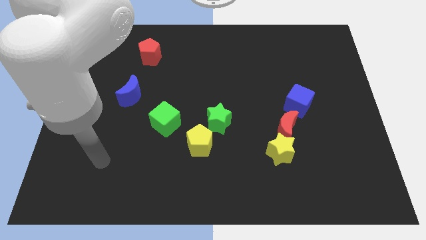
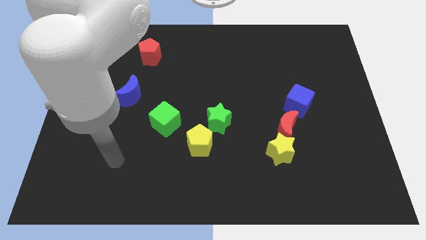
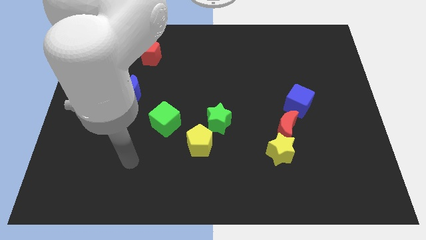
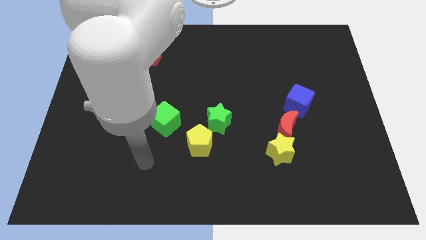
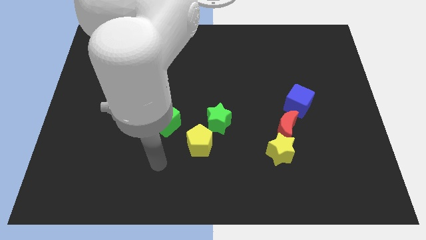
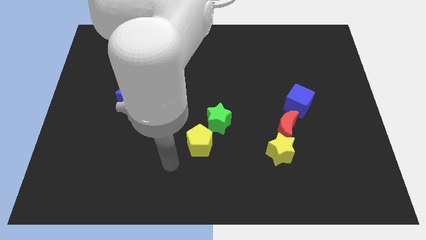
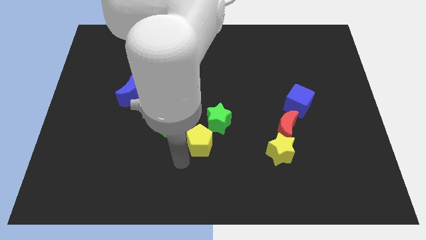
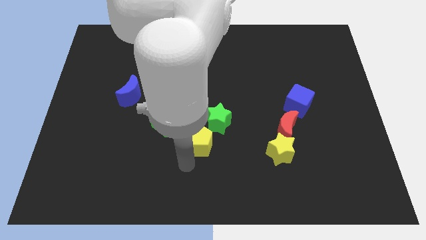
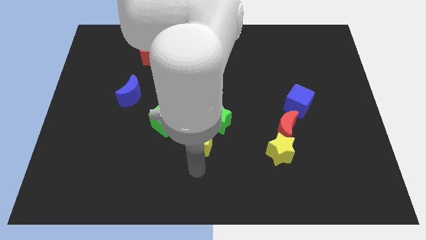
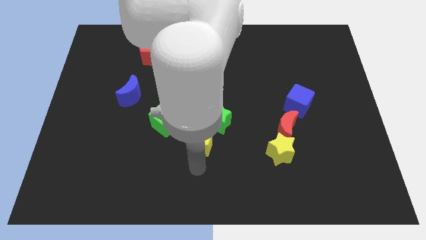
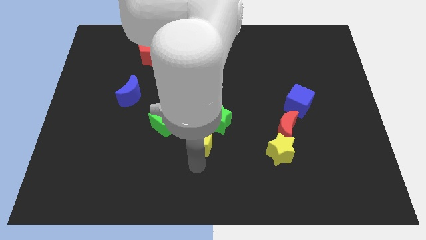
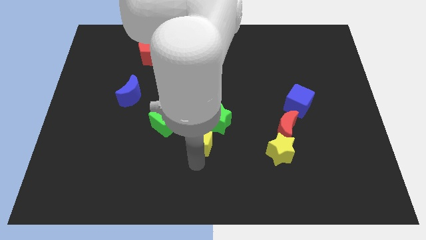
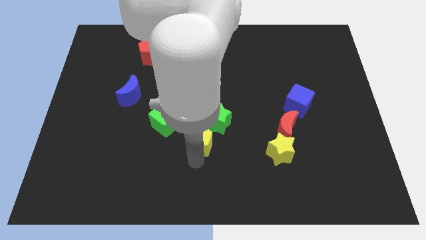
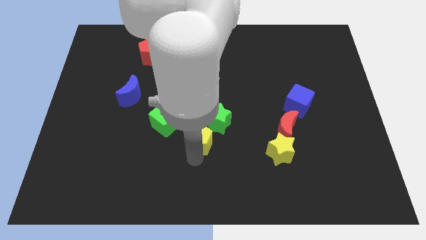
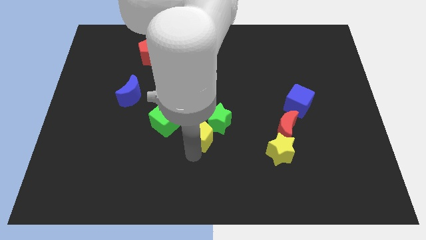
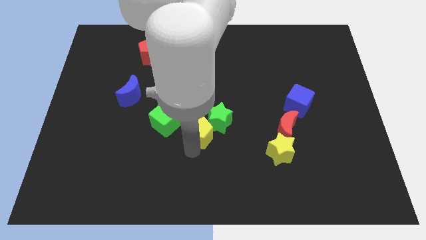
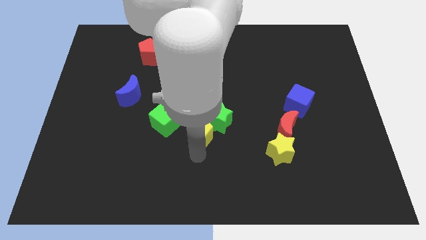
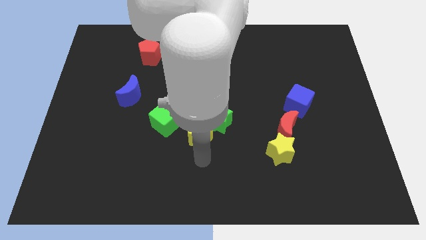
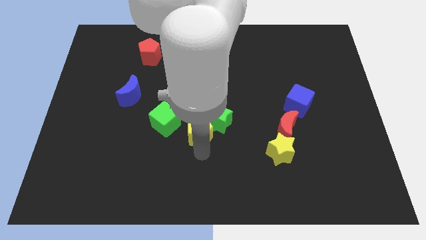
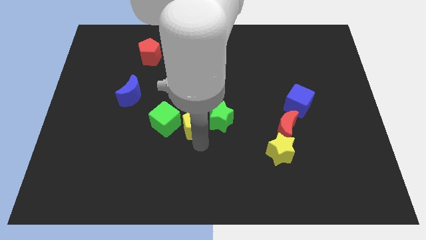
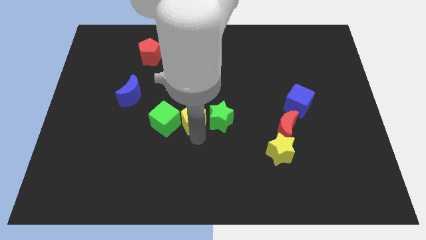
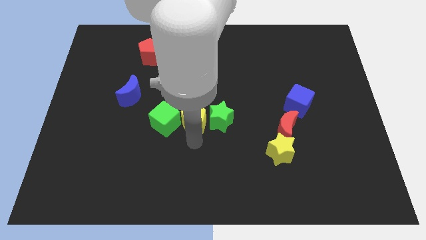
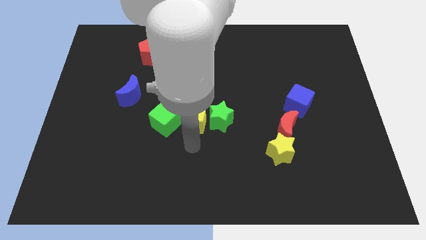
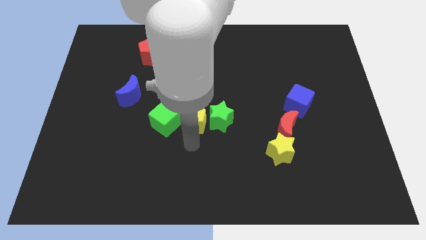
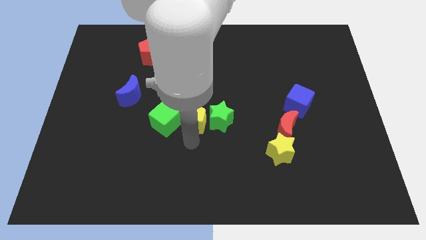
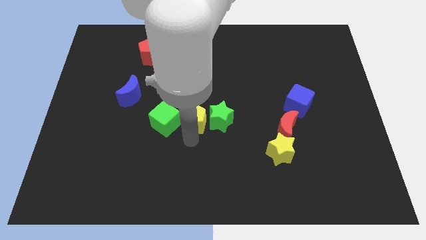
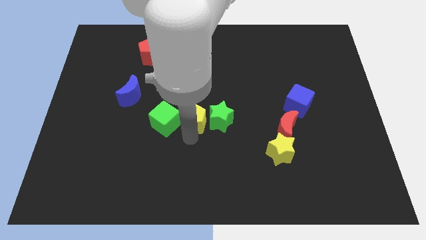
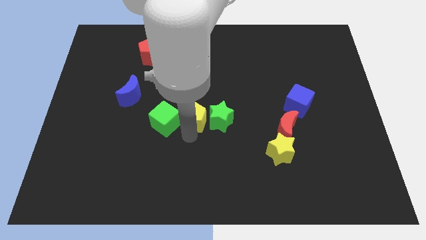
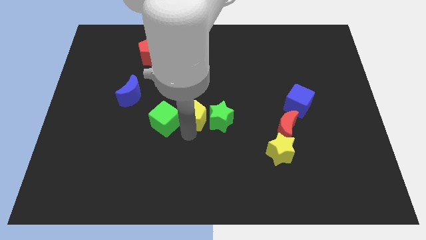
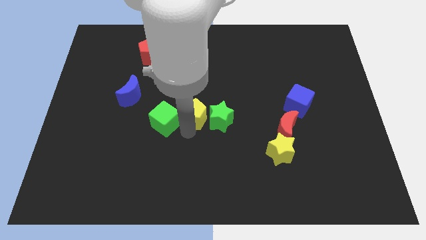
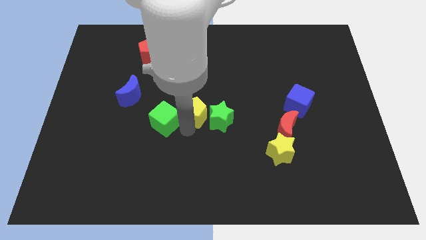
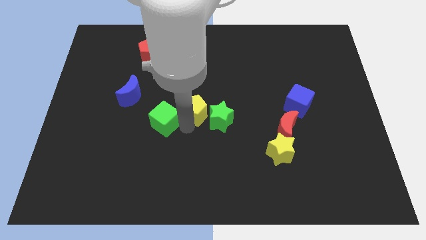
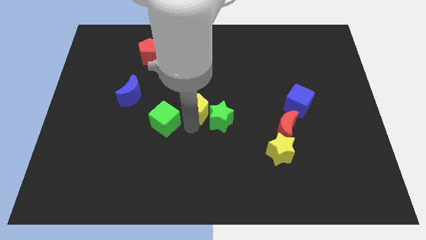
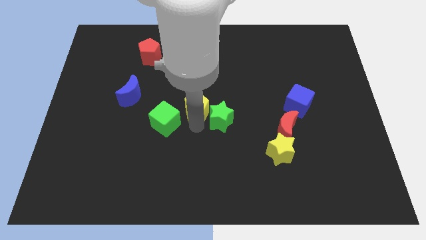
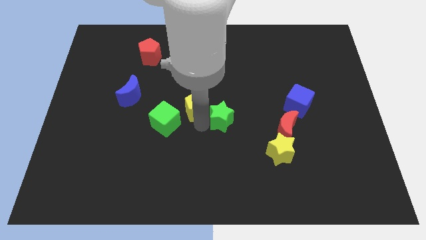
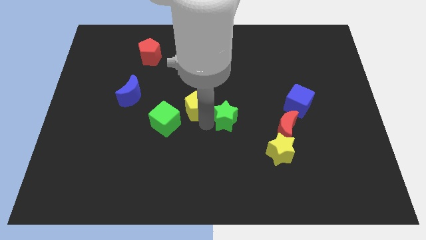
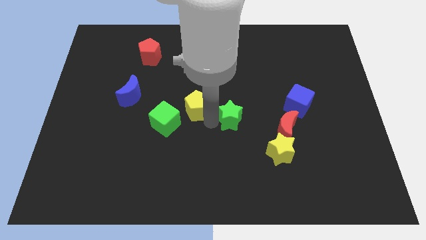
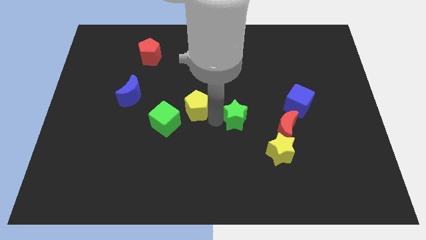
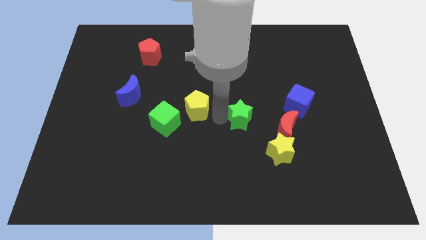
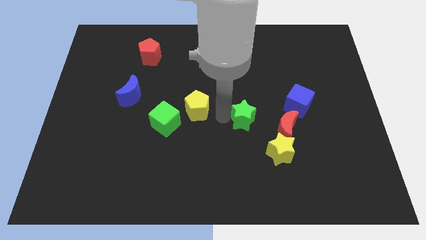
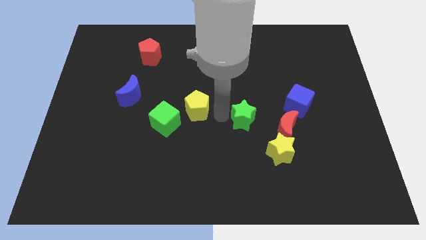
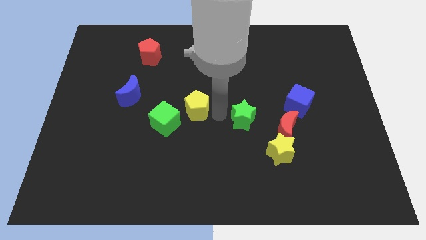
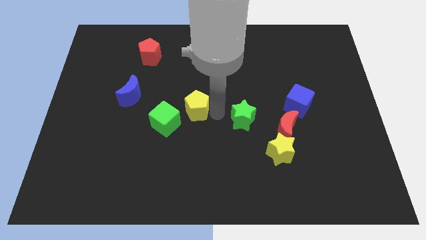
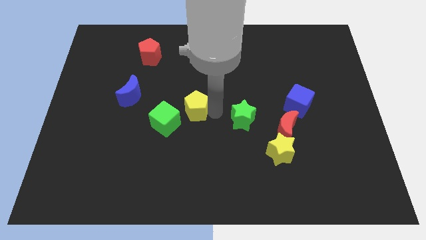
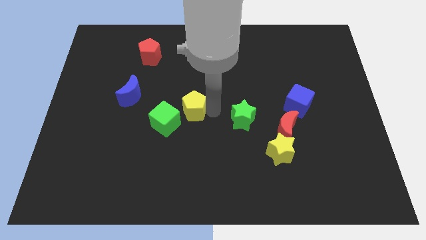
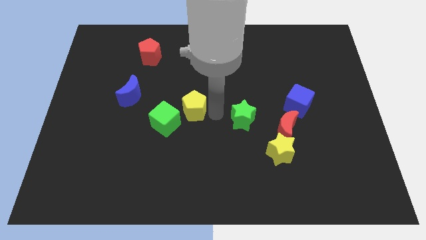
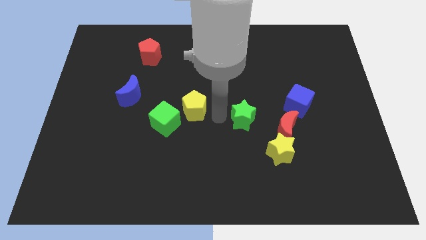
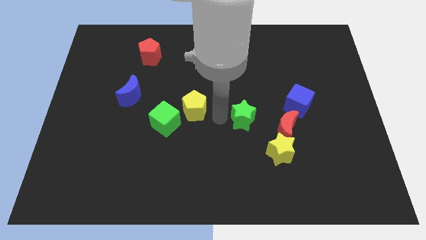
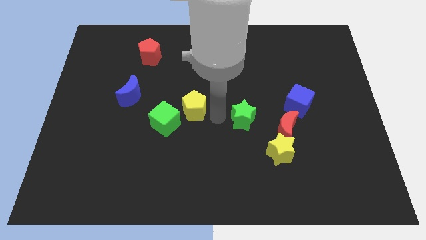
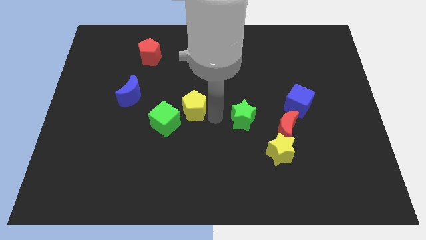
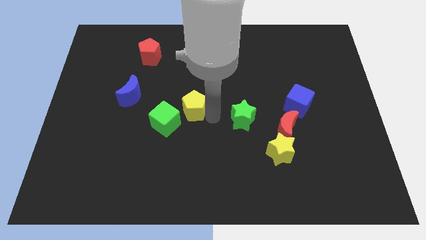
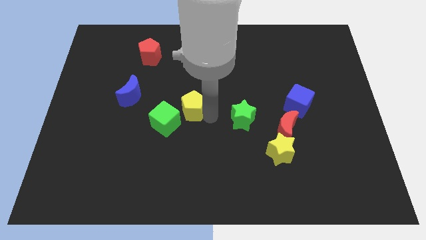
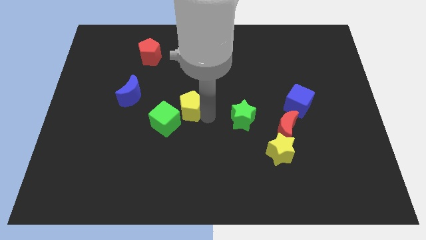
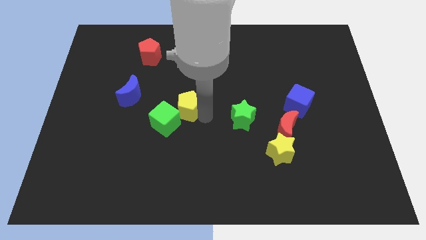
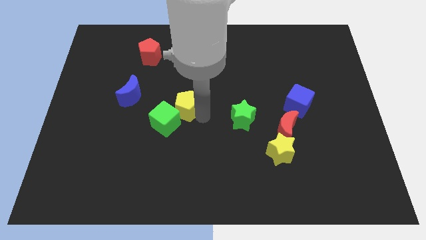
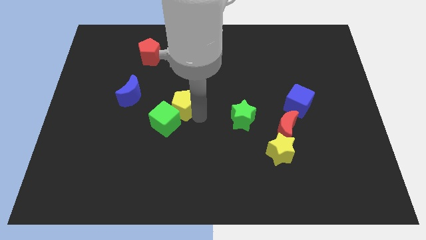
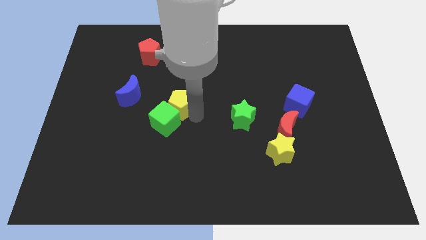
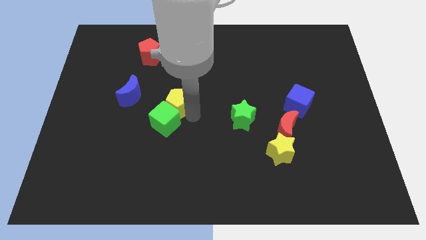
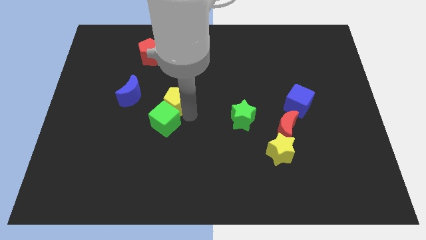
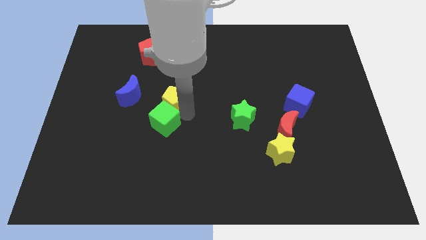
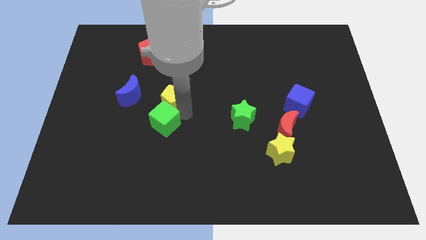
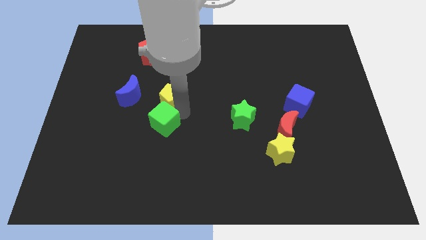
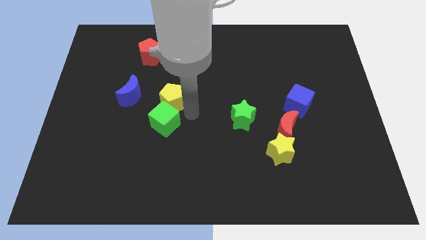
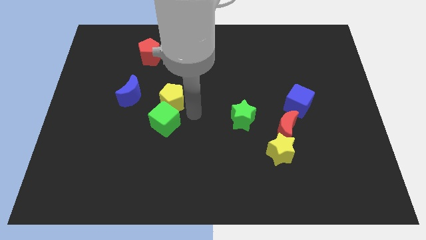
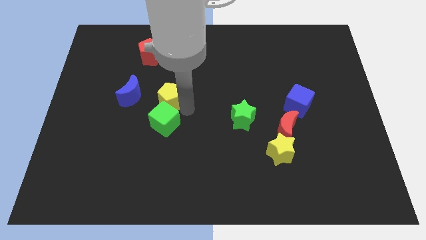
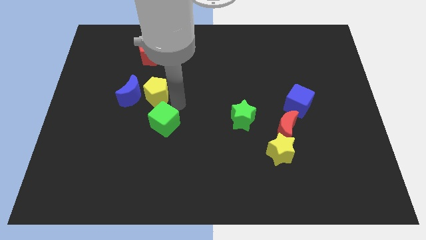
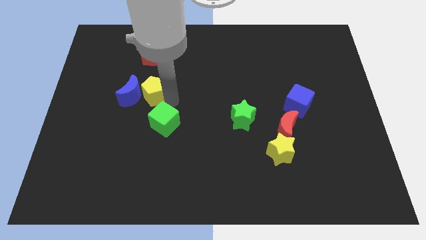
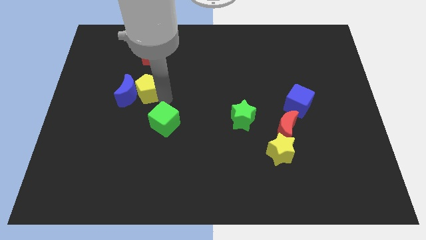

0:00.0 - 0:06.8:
push the yellow pentagon diagonally upwards and left

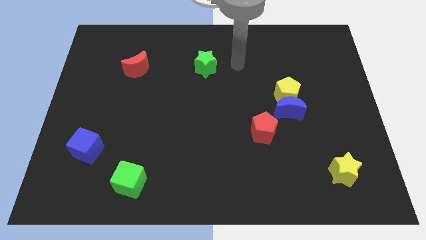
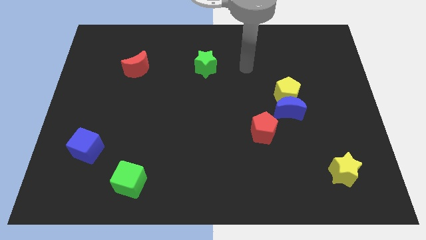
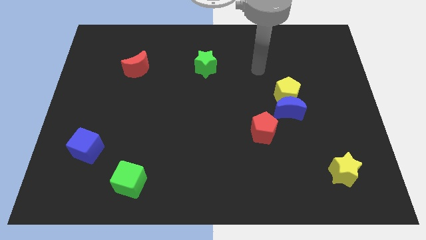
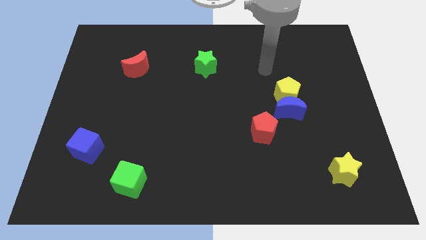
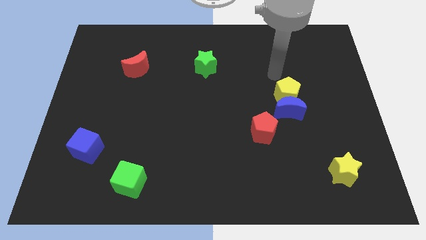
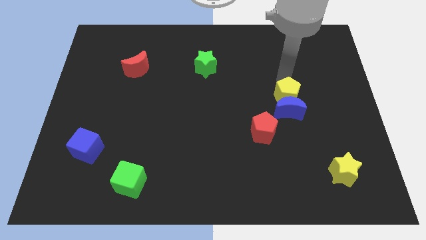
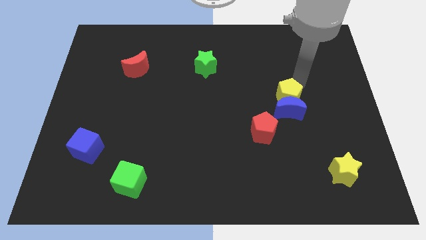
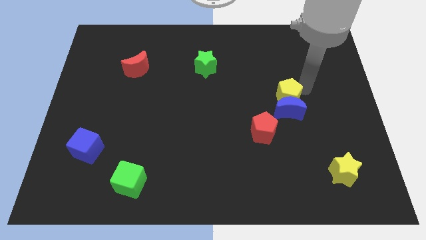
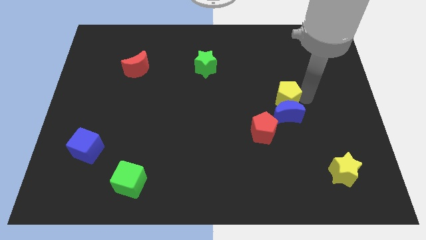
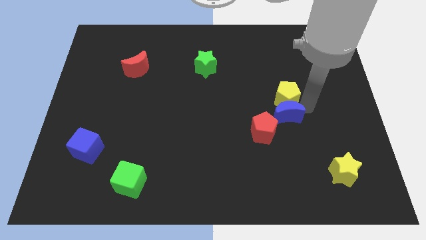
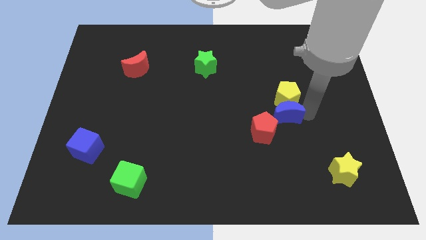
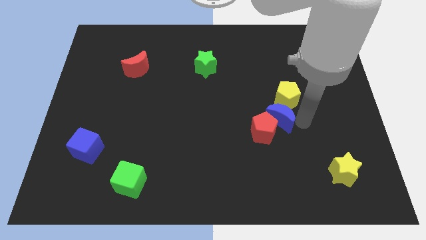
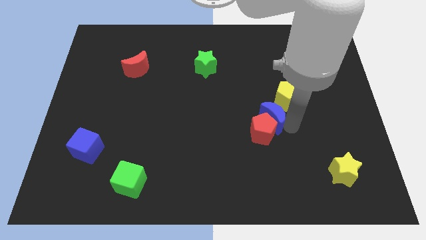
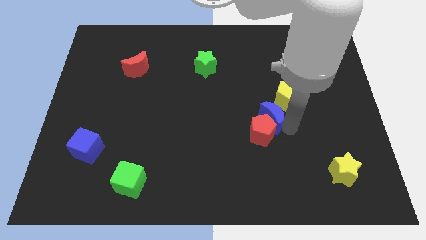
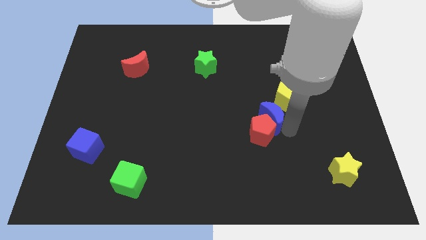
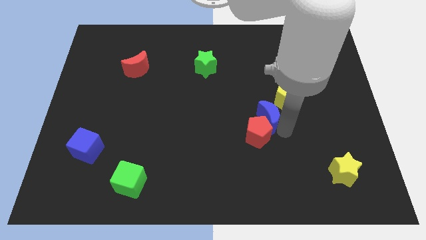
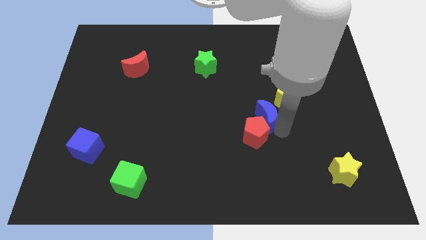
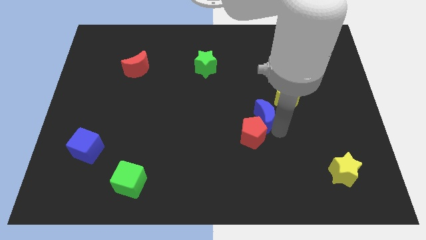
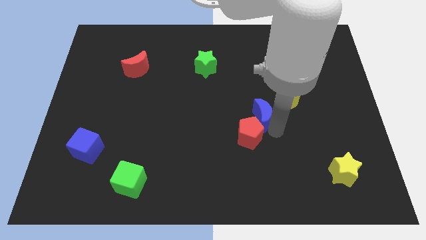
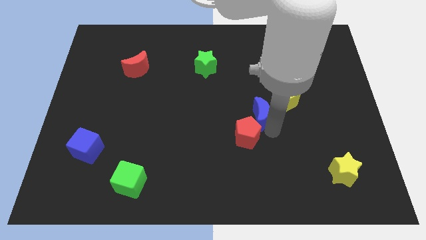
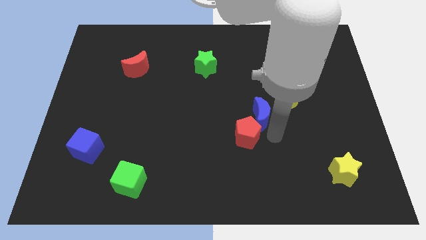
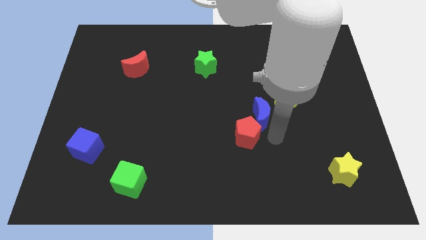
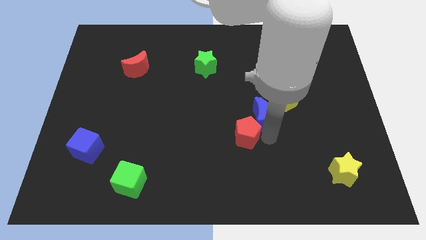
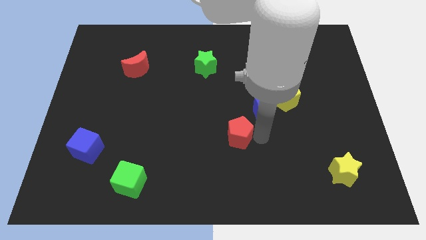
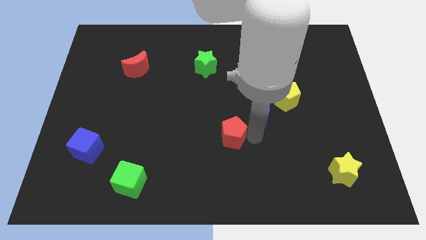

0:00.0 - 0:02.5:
slightly move the red pentagon left
